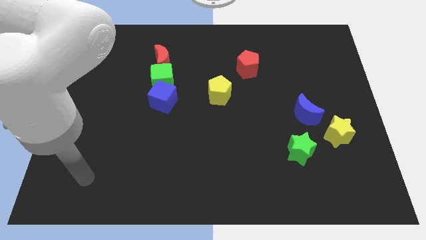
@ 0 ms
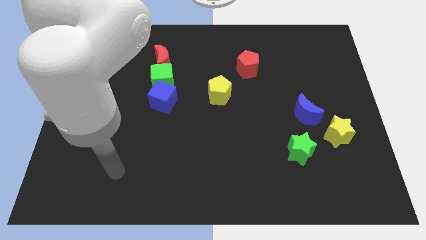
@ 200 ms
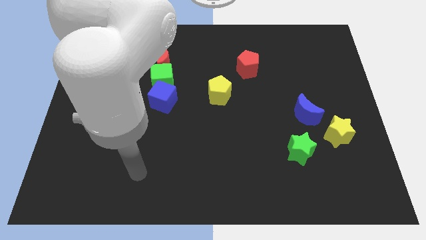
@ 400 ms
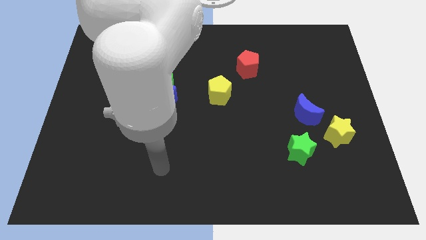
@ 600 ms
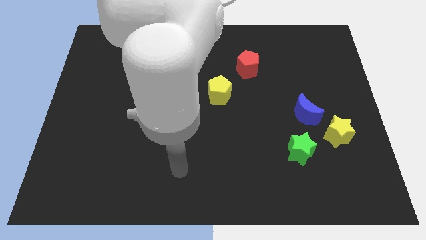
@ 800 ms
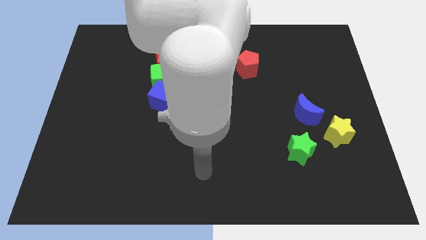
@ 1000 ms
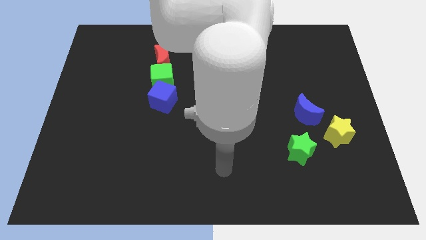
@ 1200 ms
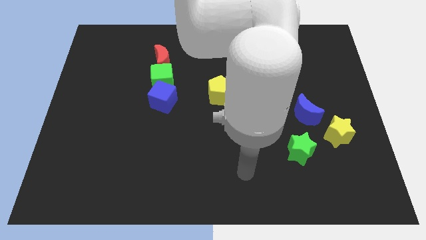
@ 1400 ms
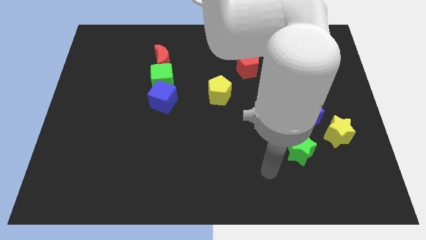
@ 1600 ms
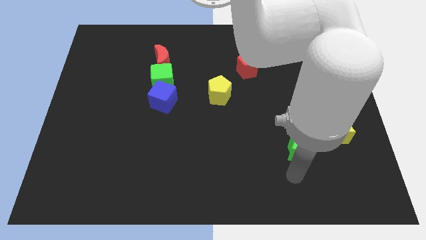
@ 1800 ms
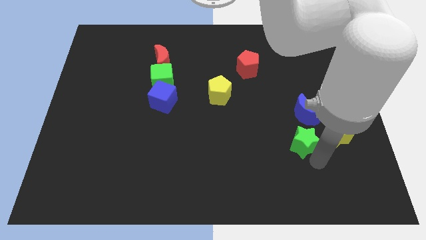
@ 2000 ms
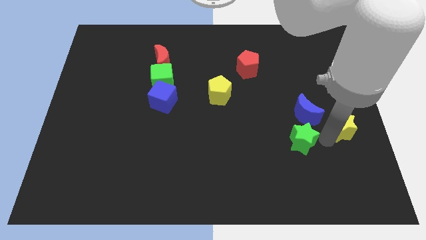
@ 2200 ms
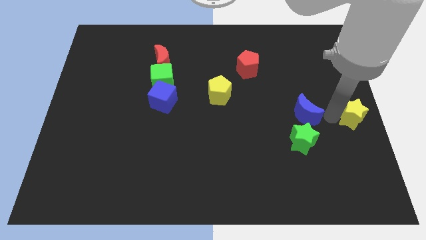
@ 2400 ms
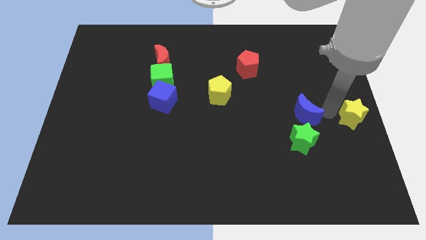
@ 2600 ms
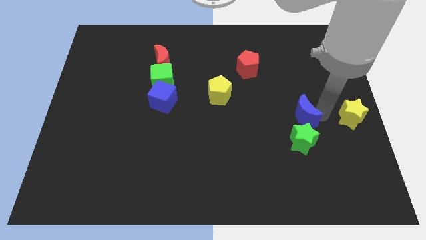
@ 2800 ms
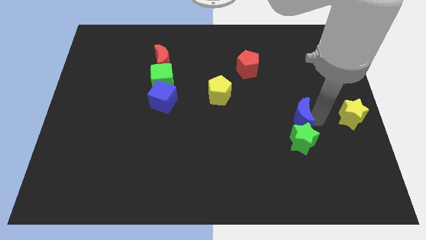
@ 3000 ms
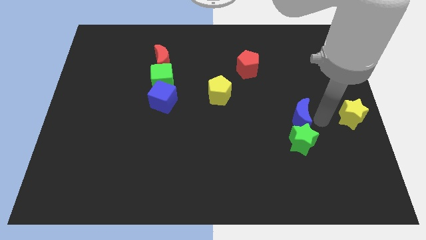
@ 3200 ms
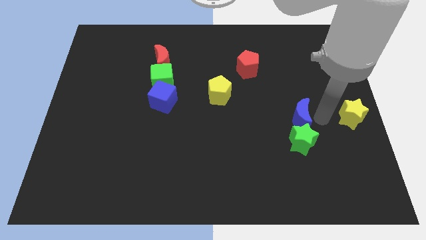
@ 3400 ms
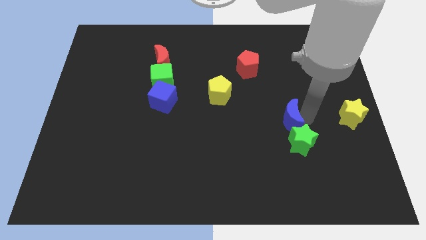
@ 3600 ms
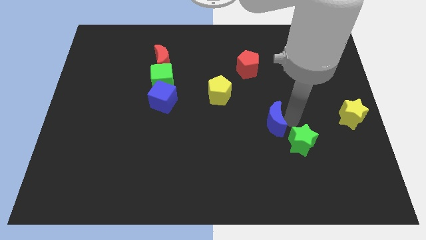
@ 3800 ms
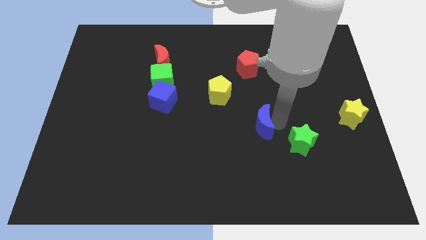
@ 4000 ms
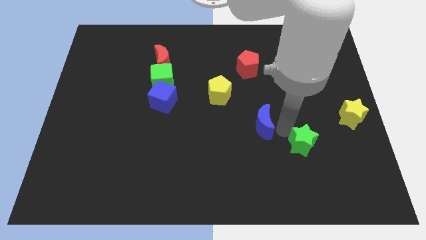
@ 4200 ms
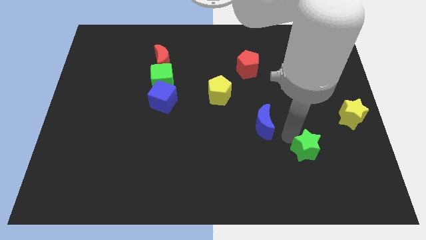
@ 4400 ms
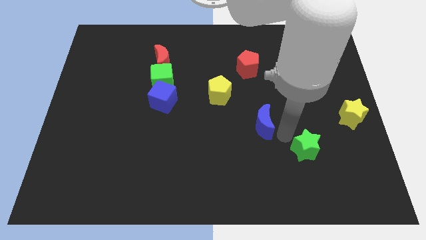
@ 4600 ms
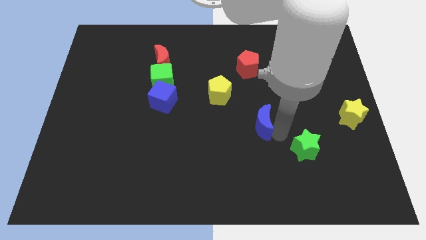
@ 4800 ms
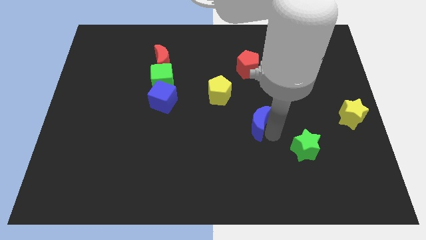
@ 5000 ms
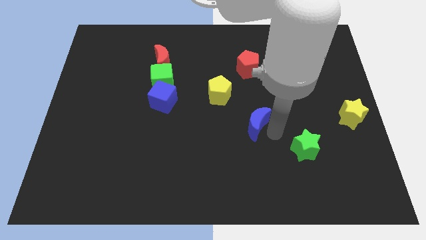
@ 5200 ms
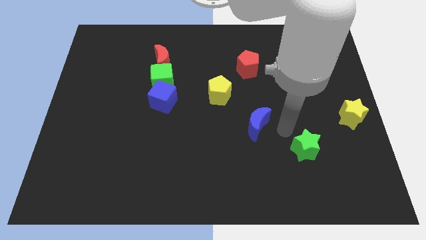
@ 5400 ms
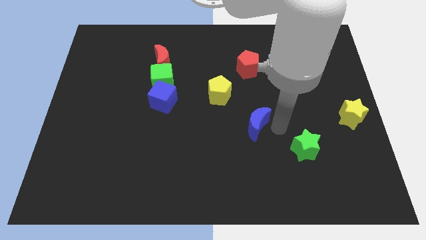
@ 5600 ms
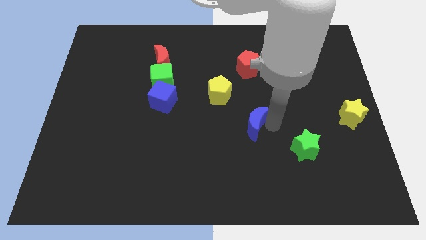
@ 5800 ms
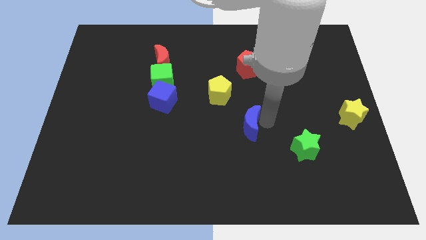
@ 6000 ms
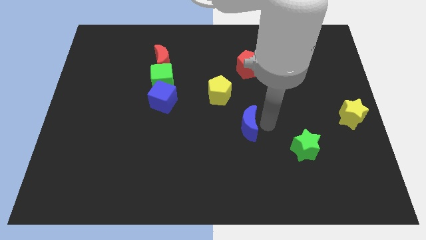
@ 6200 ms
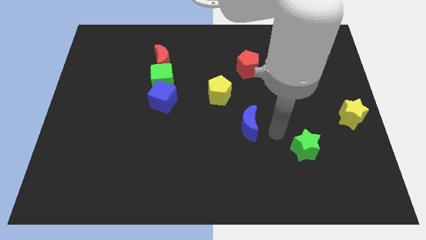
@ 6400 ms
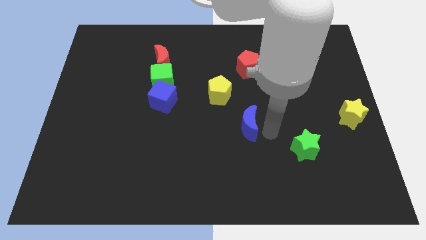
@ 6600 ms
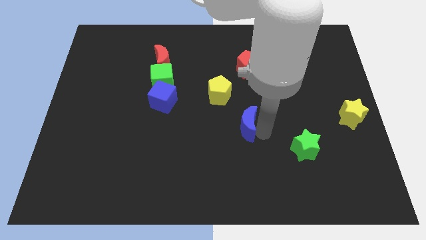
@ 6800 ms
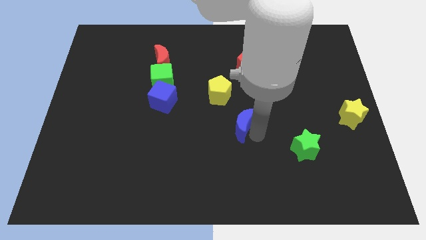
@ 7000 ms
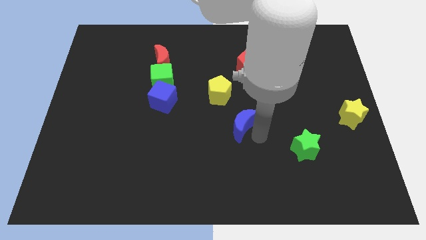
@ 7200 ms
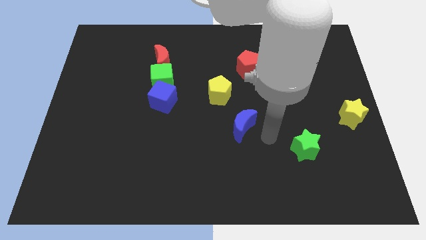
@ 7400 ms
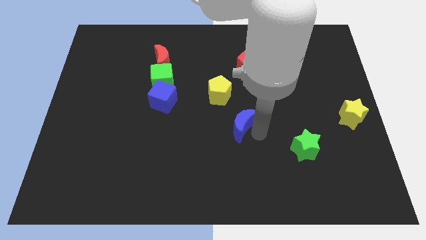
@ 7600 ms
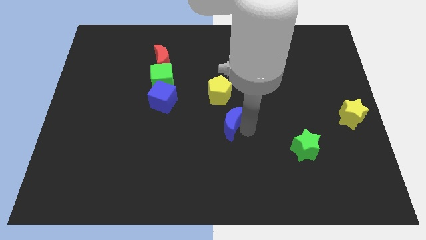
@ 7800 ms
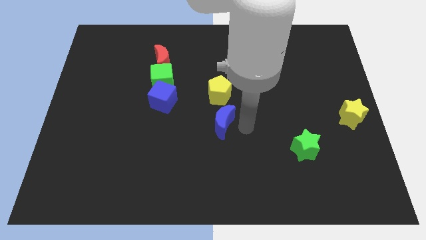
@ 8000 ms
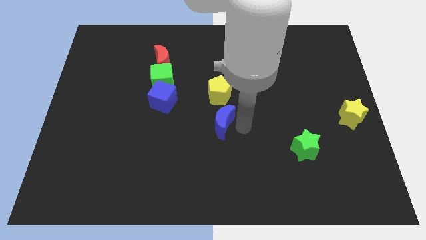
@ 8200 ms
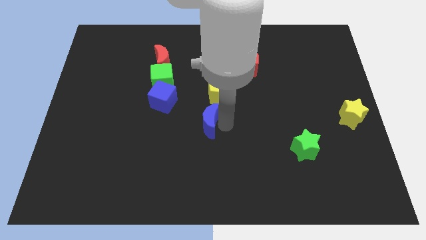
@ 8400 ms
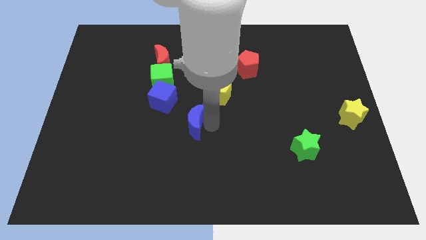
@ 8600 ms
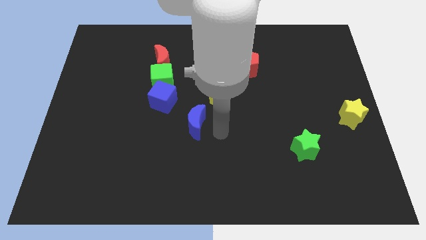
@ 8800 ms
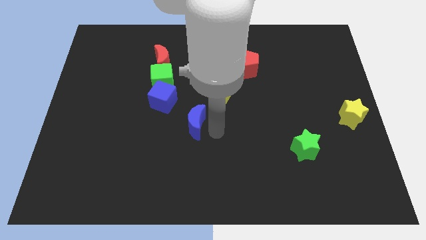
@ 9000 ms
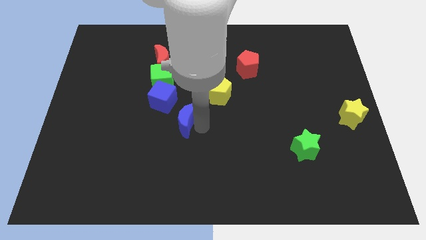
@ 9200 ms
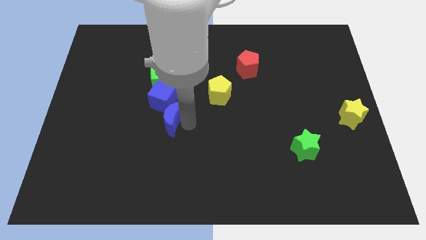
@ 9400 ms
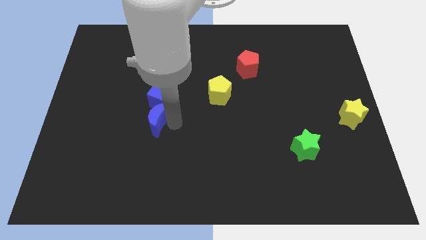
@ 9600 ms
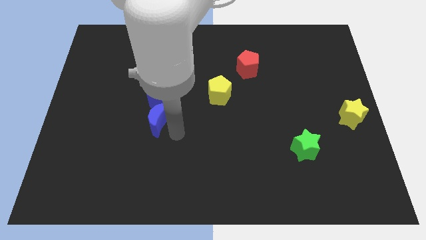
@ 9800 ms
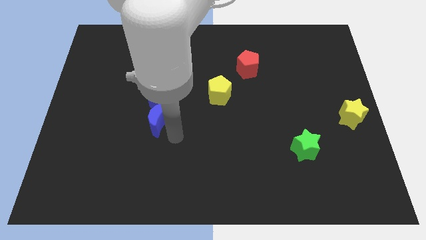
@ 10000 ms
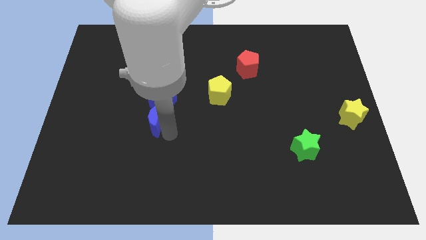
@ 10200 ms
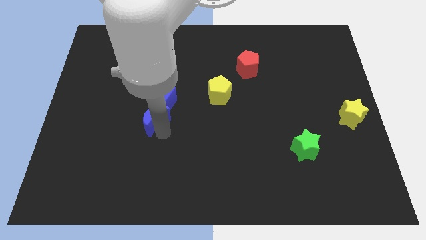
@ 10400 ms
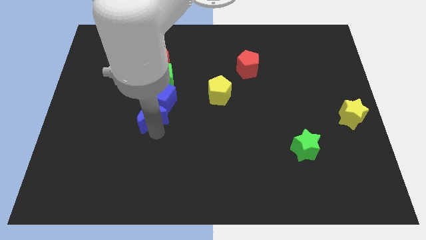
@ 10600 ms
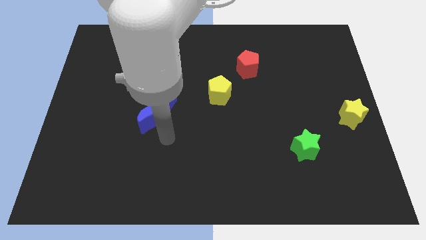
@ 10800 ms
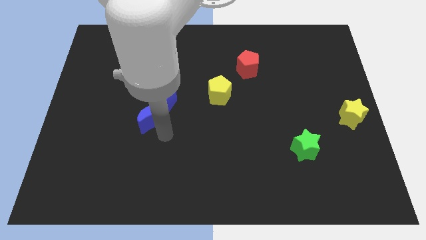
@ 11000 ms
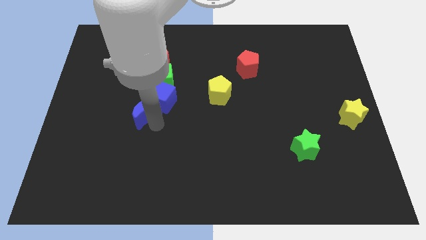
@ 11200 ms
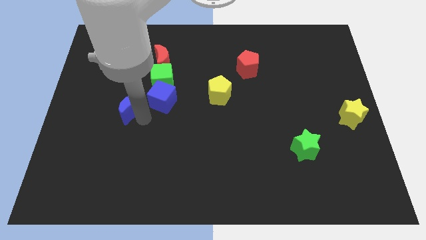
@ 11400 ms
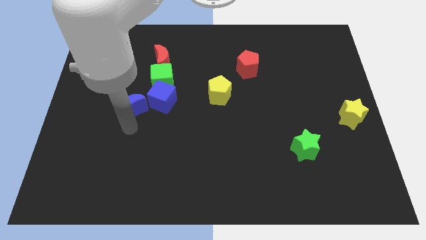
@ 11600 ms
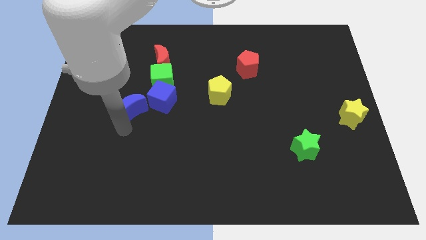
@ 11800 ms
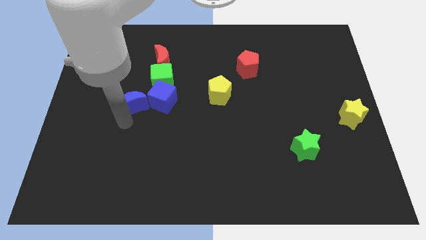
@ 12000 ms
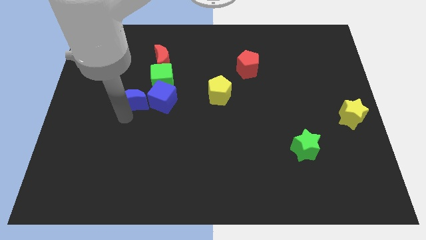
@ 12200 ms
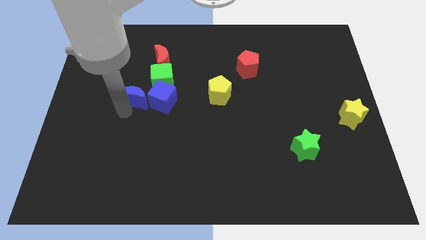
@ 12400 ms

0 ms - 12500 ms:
put the blue moon to the top left side of the blue cube

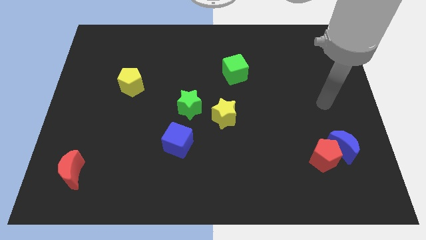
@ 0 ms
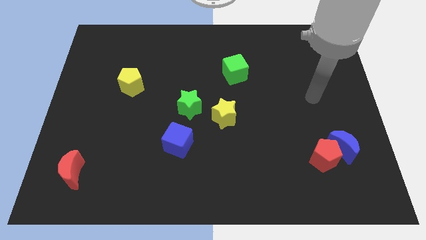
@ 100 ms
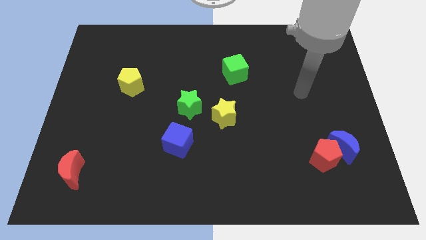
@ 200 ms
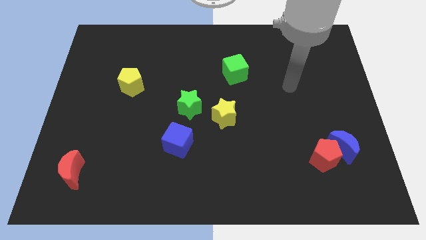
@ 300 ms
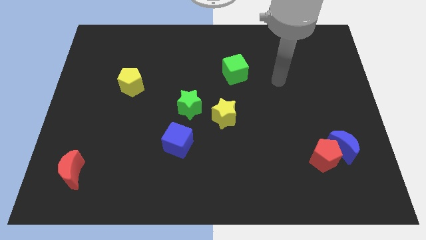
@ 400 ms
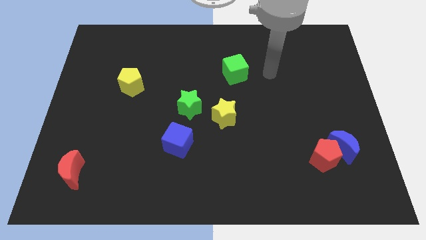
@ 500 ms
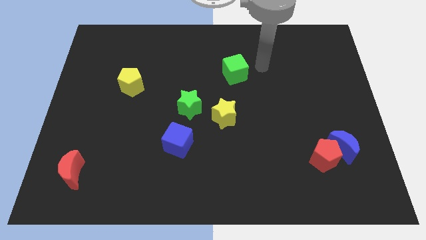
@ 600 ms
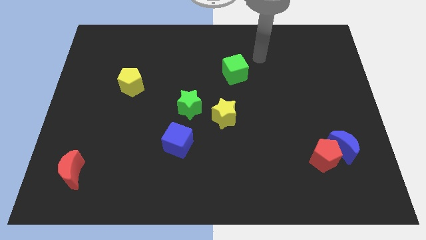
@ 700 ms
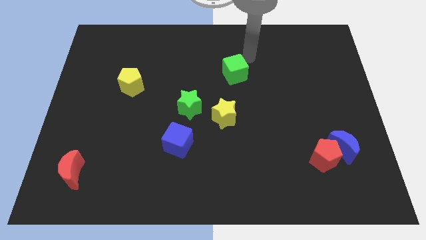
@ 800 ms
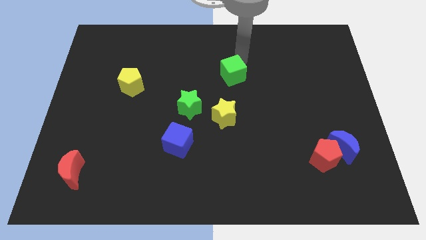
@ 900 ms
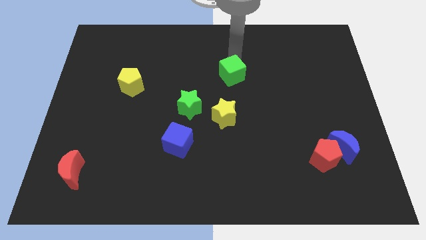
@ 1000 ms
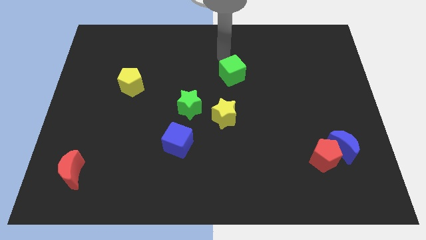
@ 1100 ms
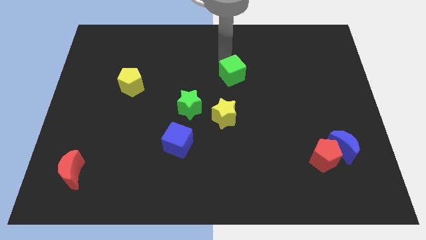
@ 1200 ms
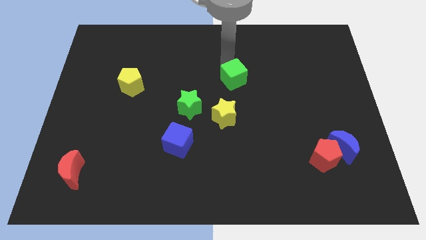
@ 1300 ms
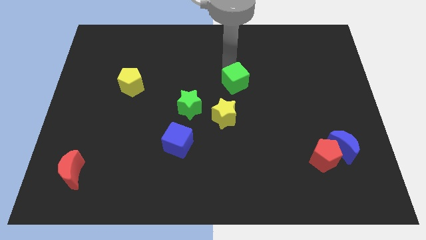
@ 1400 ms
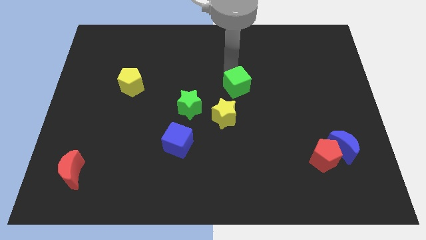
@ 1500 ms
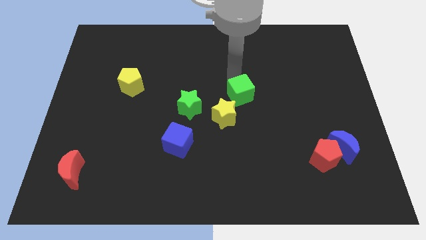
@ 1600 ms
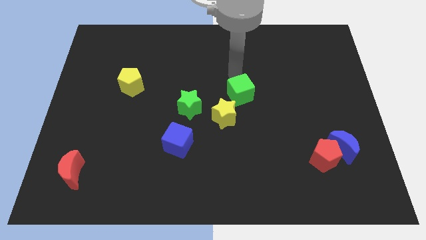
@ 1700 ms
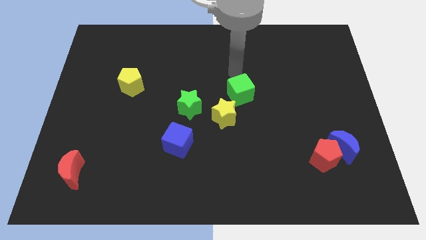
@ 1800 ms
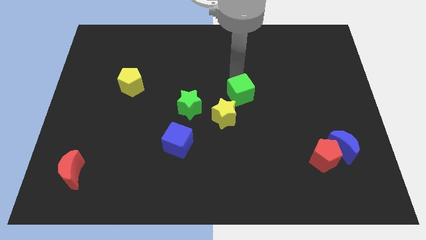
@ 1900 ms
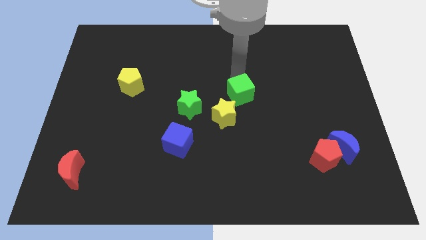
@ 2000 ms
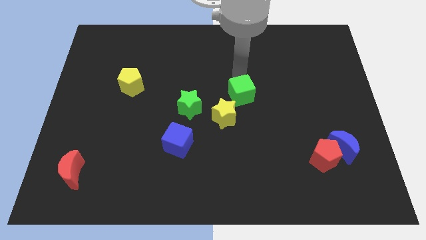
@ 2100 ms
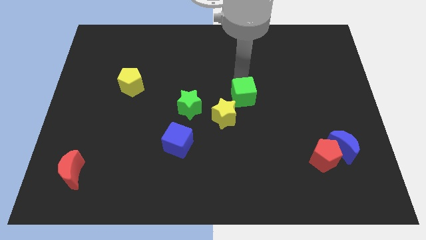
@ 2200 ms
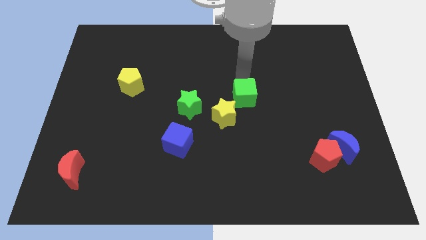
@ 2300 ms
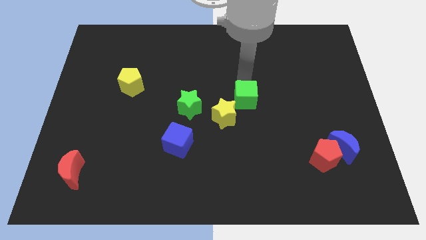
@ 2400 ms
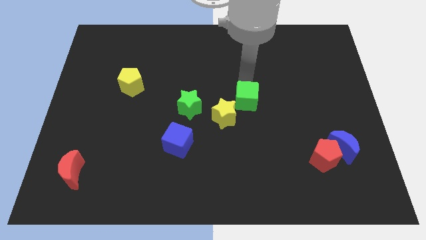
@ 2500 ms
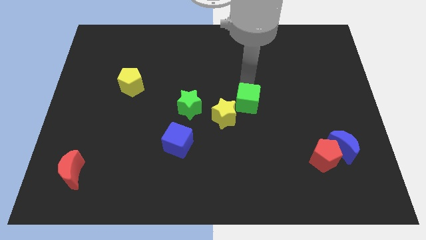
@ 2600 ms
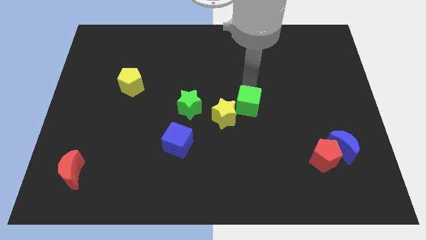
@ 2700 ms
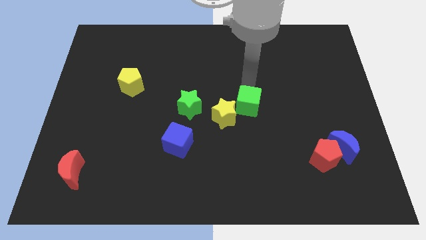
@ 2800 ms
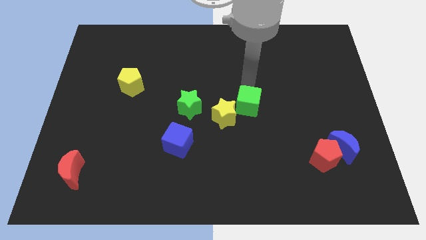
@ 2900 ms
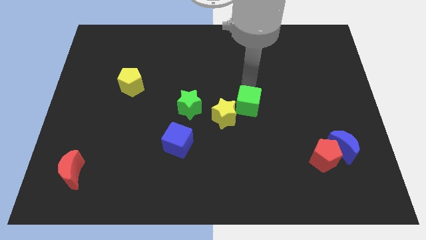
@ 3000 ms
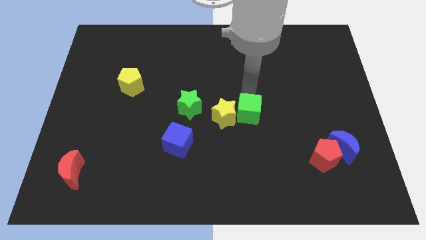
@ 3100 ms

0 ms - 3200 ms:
push the green cube diagonally down and to the right of the yellow star
